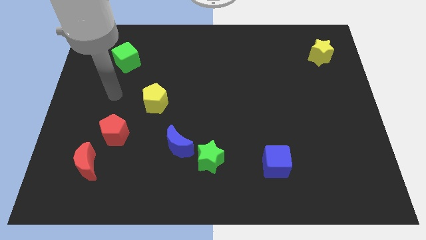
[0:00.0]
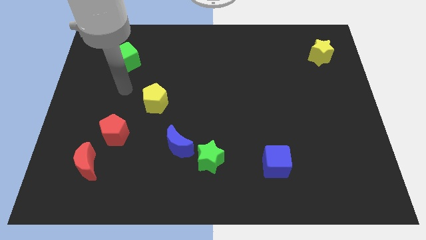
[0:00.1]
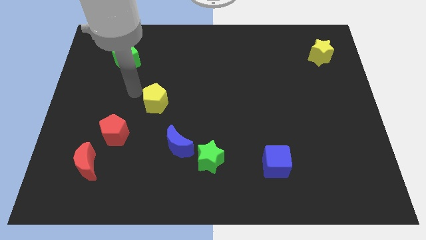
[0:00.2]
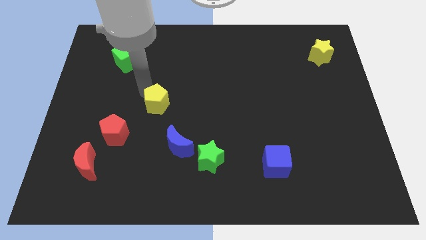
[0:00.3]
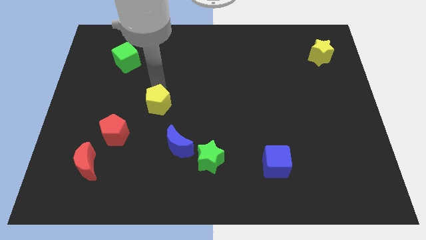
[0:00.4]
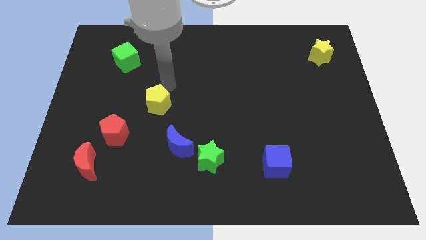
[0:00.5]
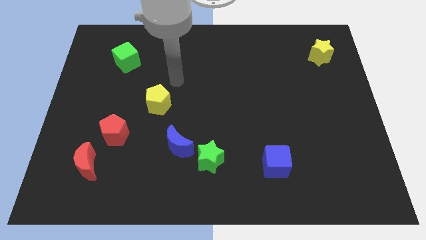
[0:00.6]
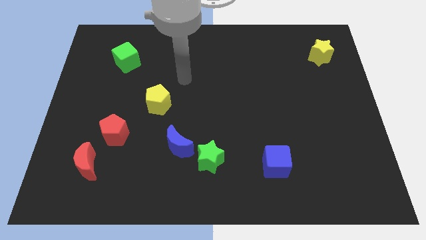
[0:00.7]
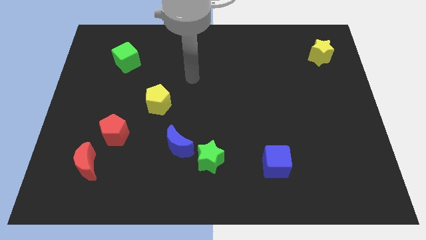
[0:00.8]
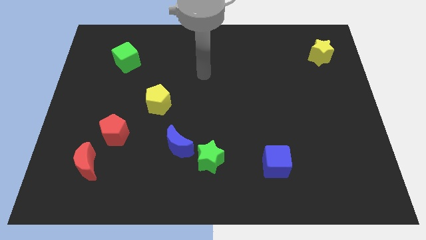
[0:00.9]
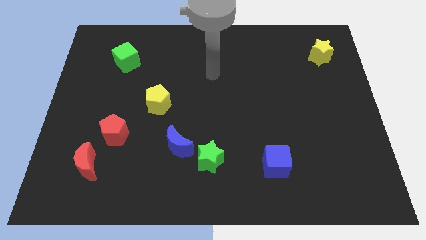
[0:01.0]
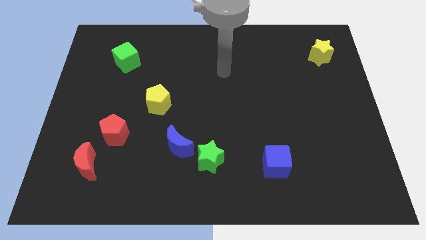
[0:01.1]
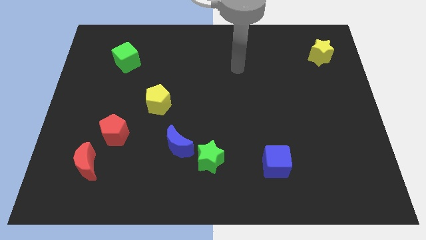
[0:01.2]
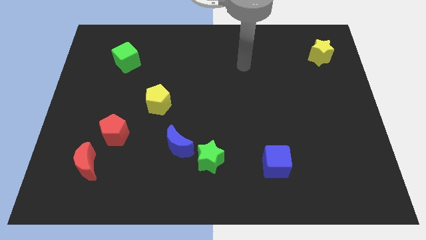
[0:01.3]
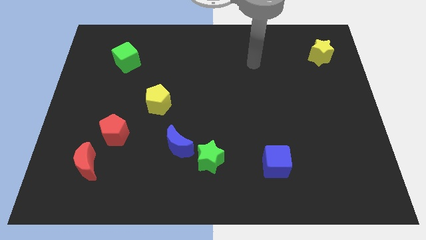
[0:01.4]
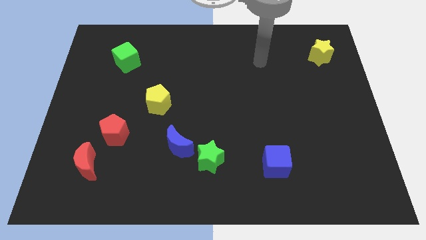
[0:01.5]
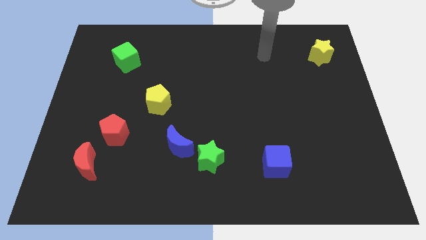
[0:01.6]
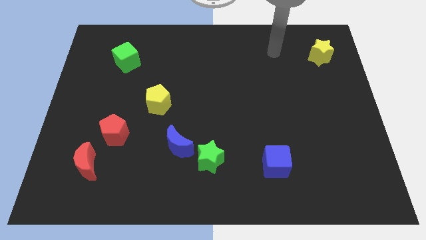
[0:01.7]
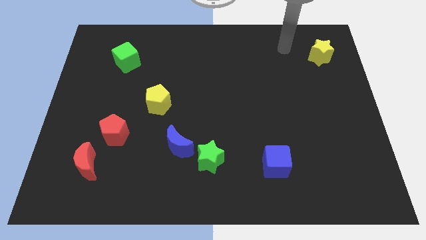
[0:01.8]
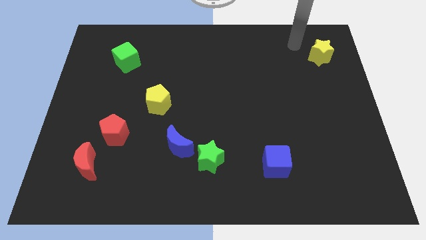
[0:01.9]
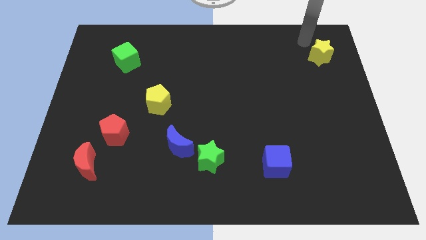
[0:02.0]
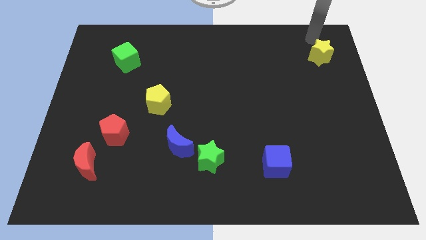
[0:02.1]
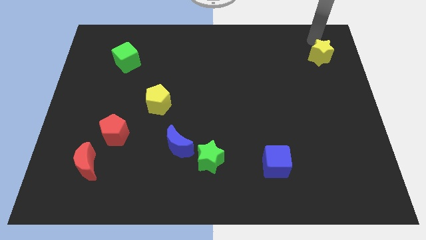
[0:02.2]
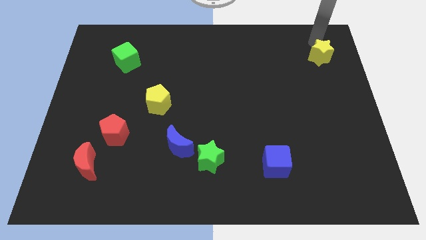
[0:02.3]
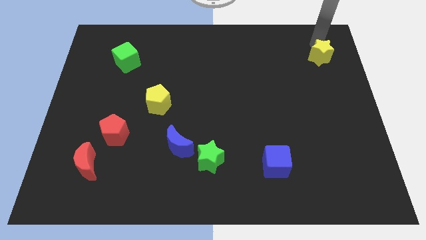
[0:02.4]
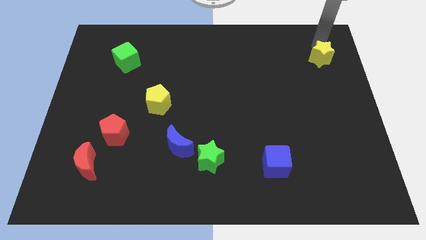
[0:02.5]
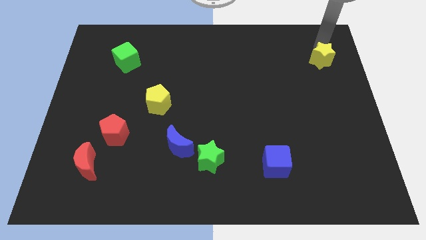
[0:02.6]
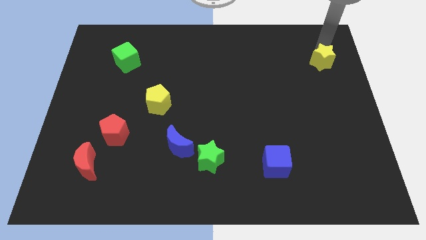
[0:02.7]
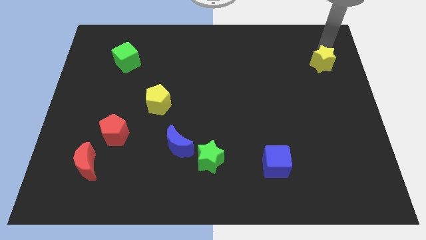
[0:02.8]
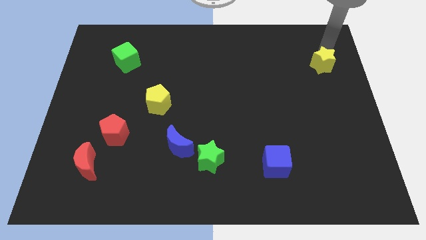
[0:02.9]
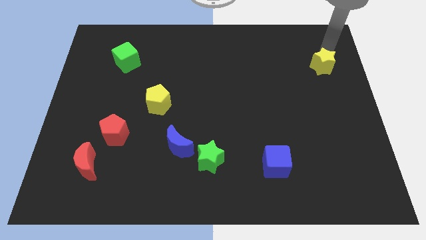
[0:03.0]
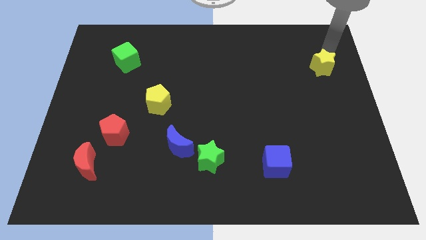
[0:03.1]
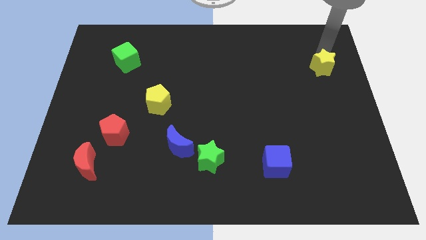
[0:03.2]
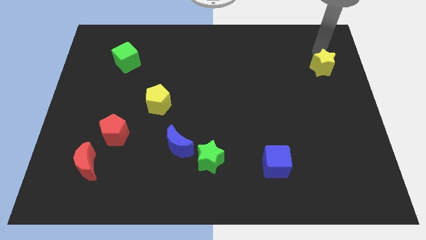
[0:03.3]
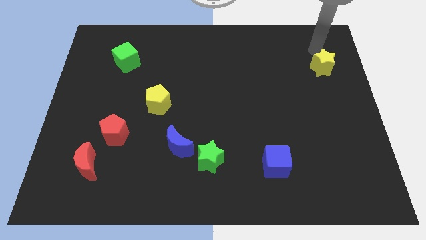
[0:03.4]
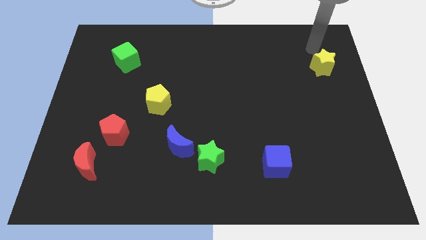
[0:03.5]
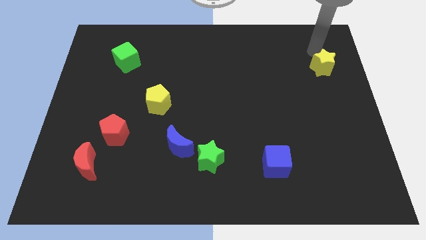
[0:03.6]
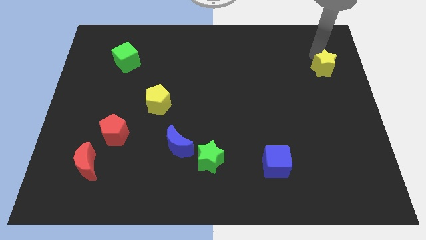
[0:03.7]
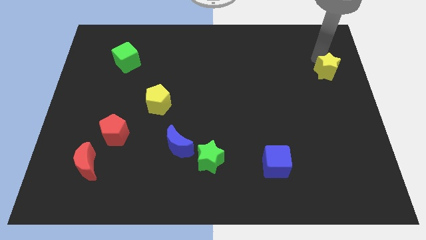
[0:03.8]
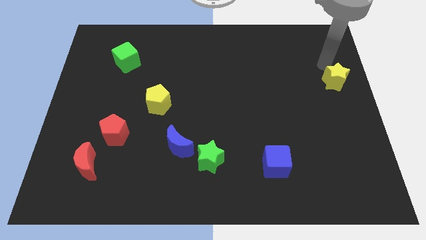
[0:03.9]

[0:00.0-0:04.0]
slide the yellow star downwards a little bit

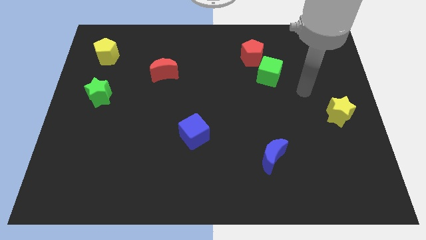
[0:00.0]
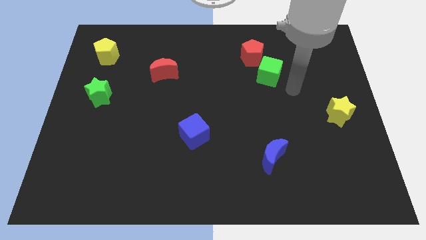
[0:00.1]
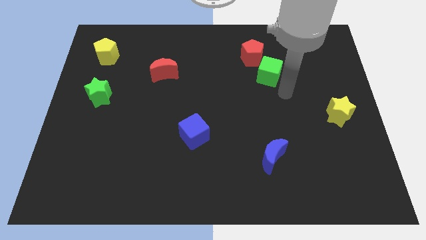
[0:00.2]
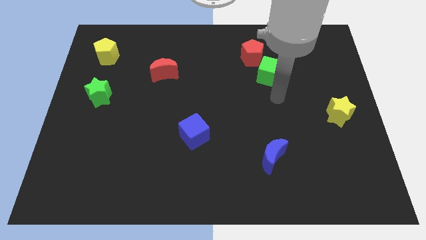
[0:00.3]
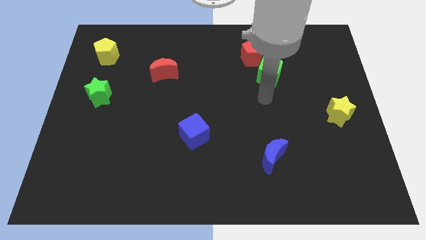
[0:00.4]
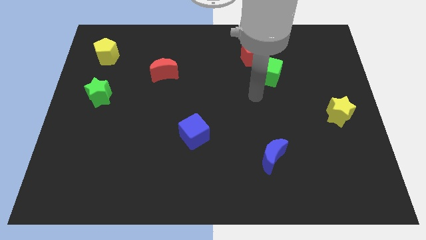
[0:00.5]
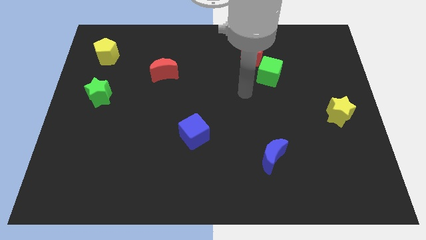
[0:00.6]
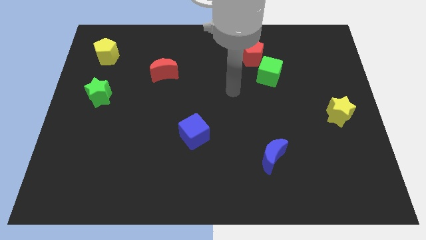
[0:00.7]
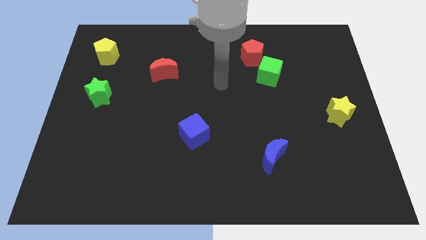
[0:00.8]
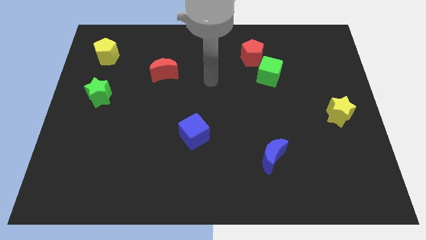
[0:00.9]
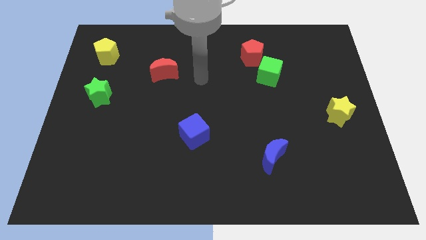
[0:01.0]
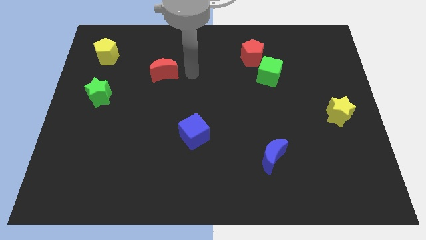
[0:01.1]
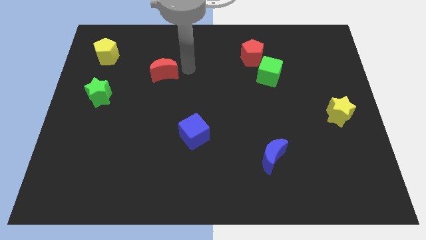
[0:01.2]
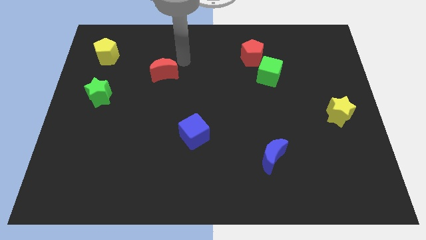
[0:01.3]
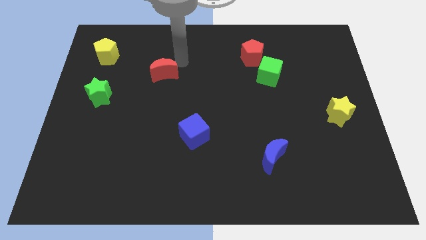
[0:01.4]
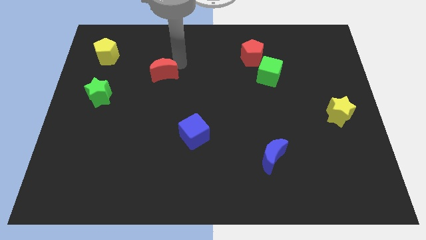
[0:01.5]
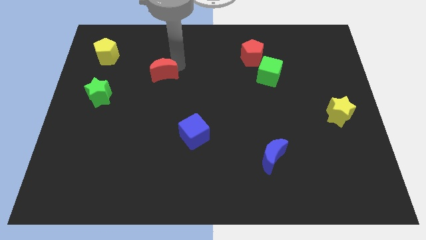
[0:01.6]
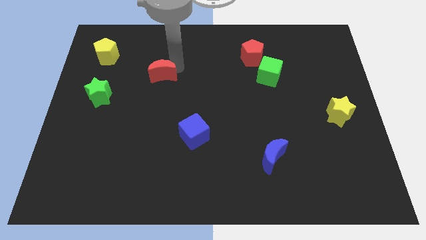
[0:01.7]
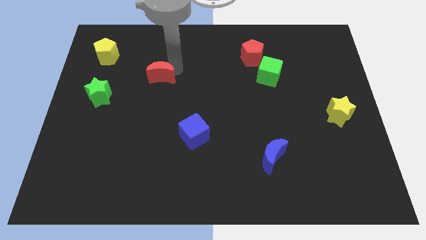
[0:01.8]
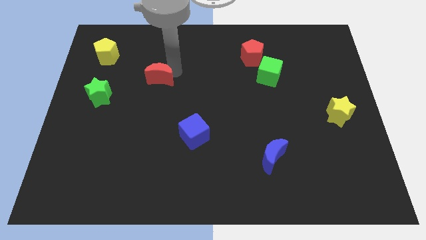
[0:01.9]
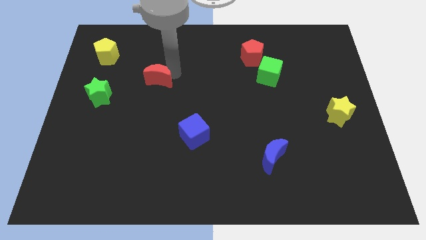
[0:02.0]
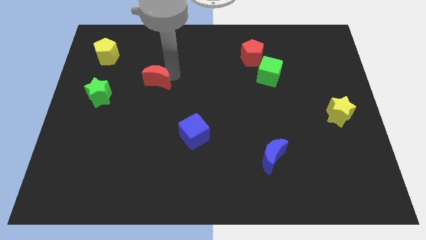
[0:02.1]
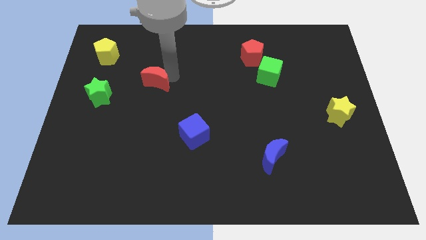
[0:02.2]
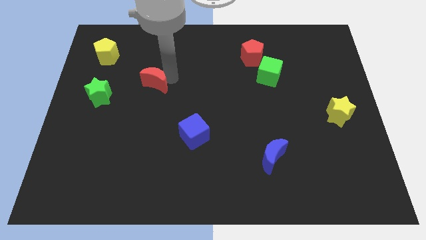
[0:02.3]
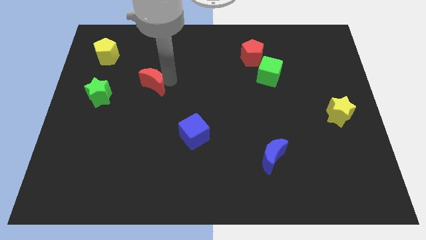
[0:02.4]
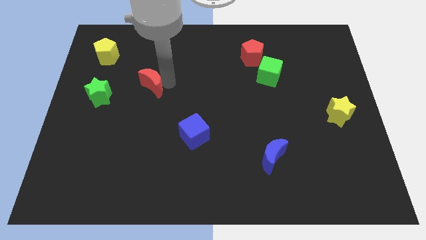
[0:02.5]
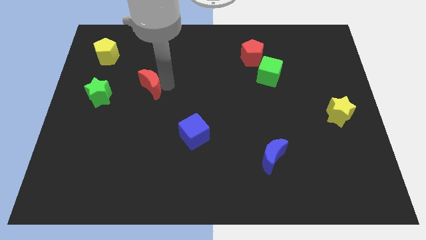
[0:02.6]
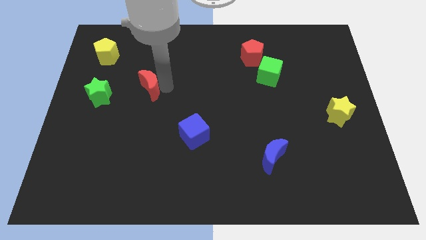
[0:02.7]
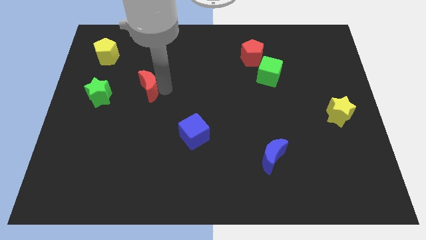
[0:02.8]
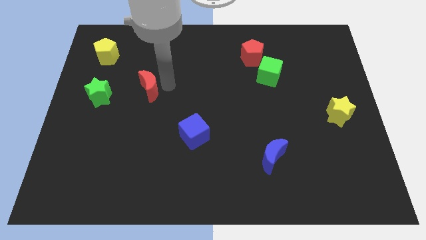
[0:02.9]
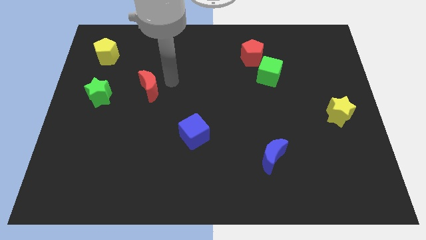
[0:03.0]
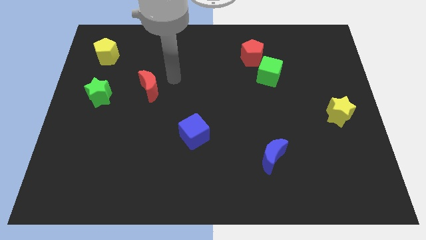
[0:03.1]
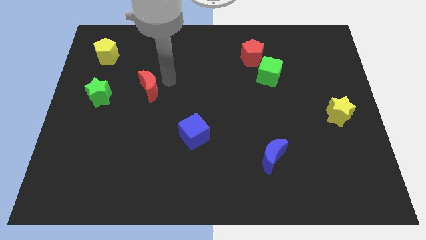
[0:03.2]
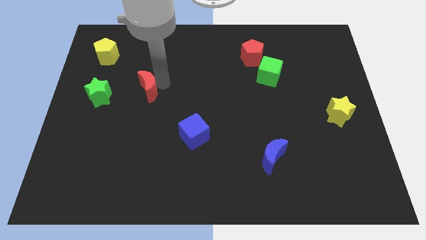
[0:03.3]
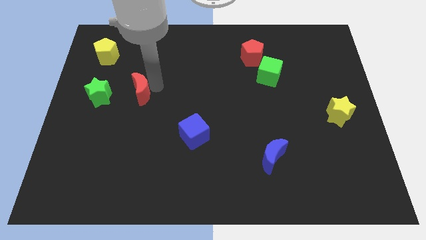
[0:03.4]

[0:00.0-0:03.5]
slightly slide the red moon downwards and left diagonally

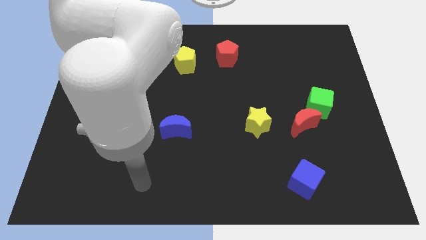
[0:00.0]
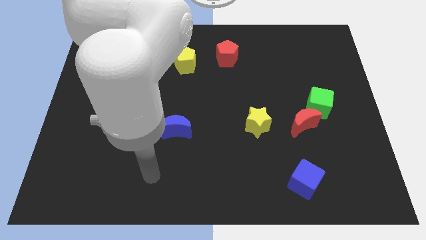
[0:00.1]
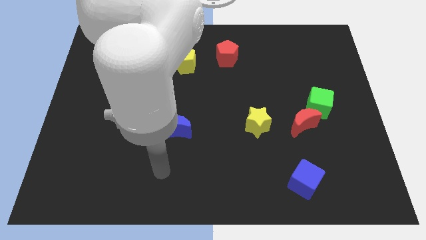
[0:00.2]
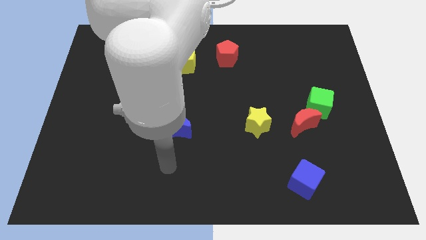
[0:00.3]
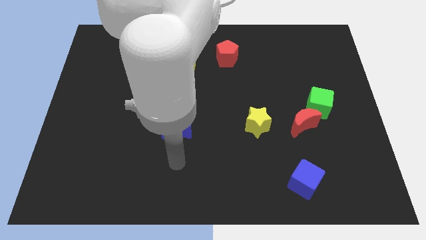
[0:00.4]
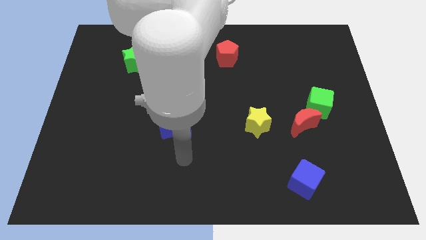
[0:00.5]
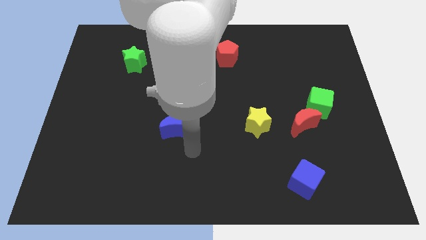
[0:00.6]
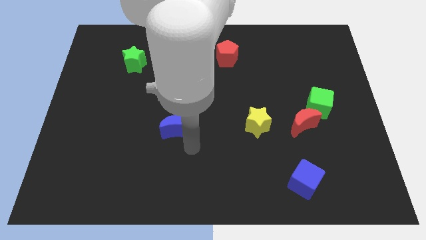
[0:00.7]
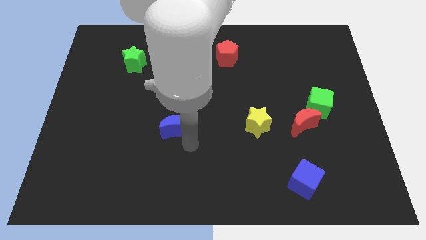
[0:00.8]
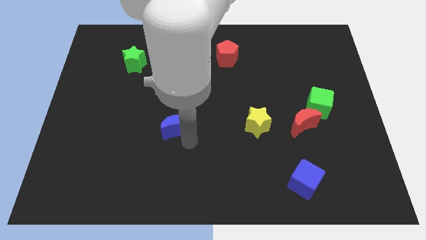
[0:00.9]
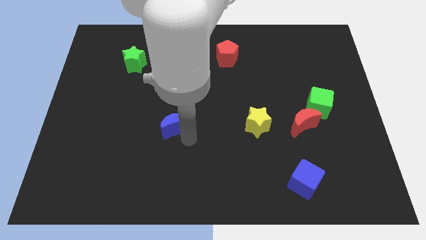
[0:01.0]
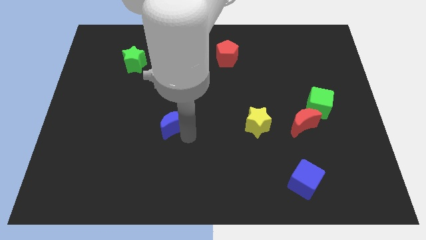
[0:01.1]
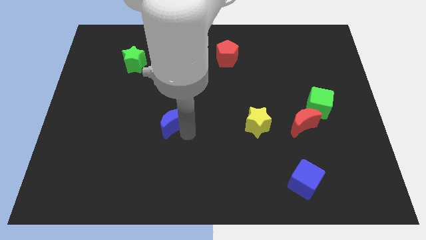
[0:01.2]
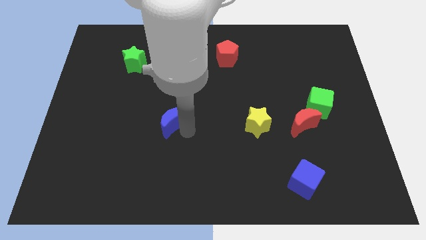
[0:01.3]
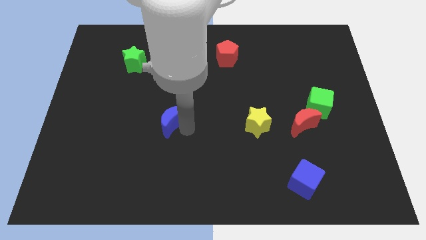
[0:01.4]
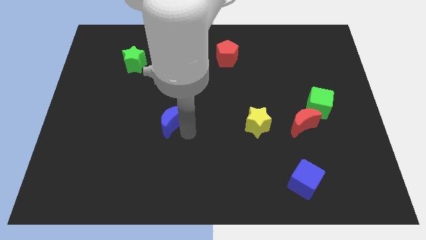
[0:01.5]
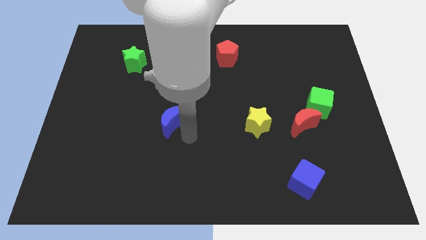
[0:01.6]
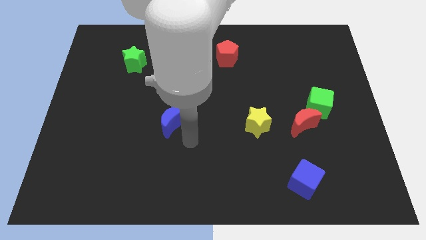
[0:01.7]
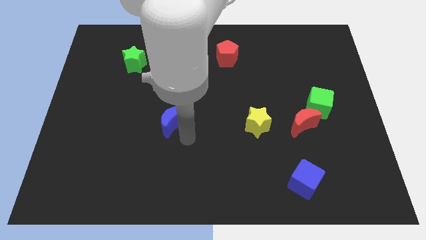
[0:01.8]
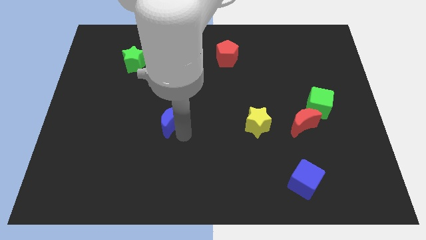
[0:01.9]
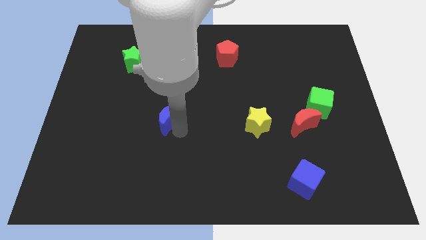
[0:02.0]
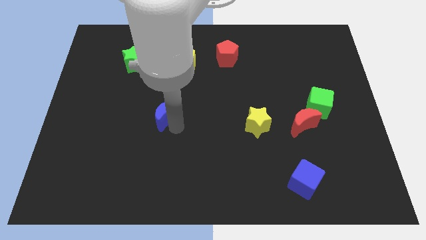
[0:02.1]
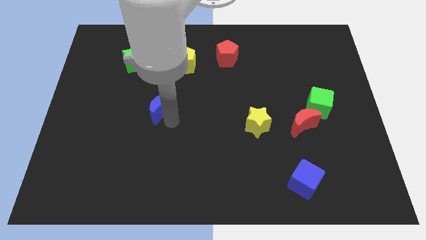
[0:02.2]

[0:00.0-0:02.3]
slide the blue moon upwards and left diagonally a little bit
